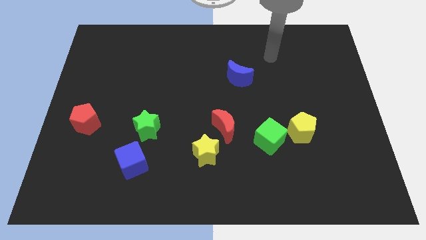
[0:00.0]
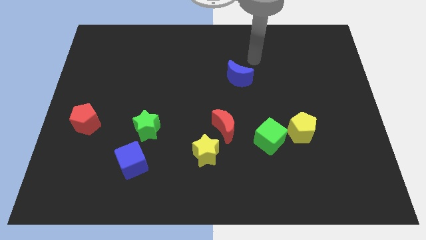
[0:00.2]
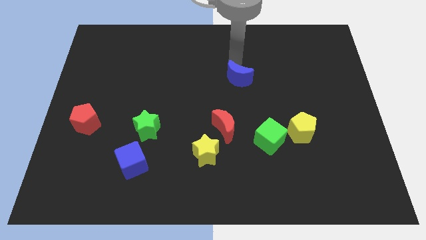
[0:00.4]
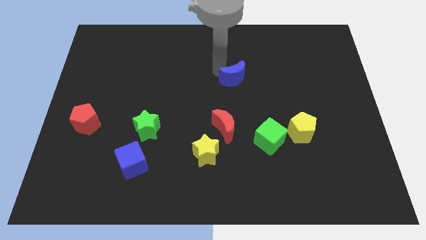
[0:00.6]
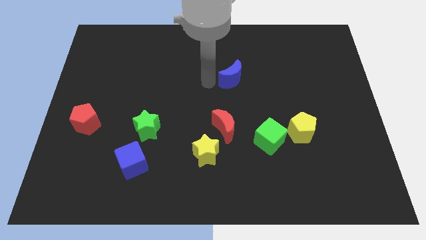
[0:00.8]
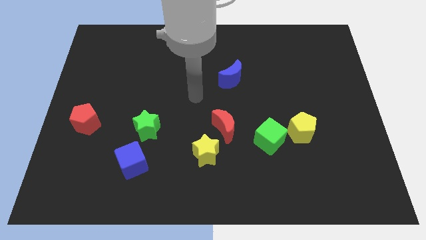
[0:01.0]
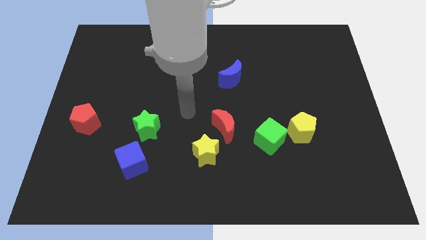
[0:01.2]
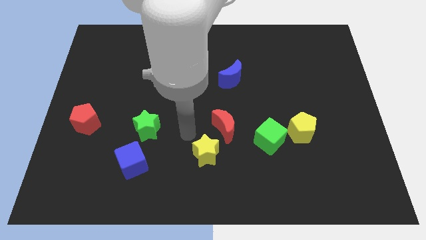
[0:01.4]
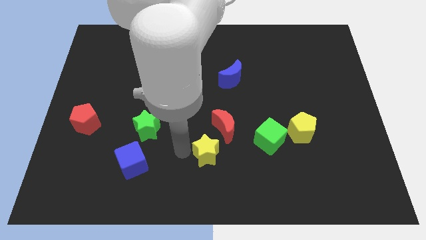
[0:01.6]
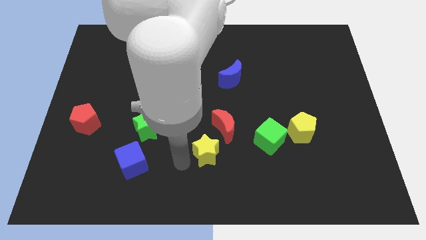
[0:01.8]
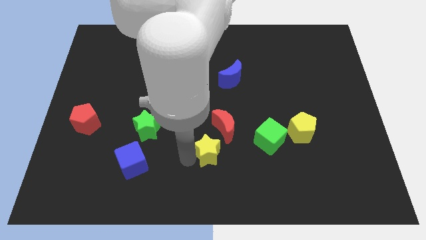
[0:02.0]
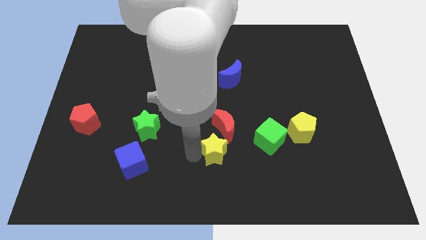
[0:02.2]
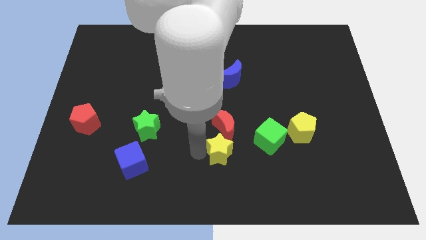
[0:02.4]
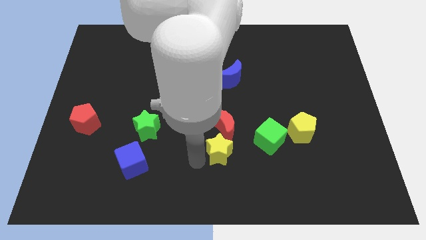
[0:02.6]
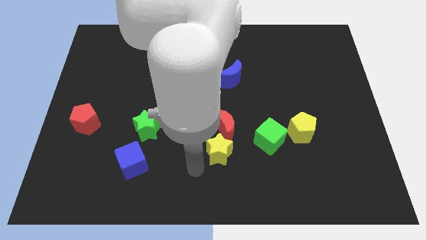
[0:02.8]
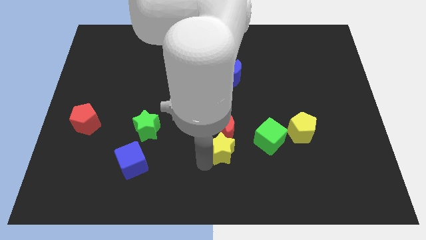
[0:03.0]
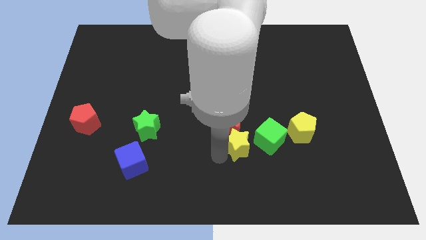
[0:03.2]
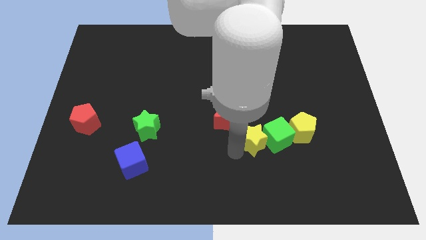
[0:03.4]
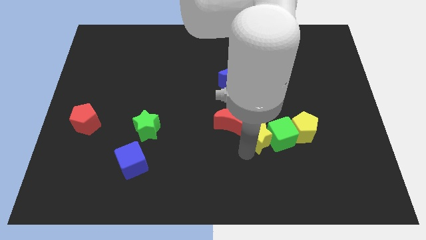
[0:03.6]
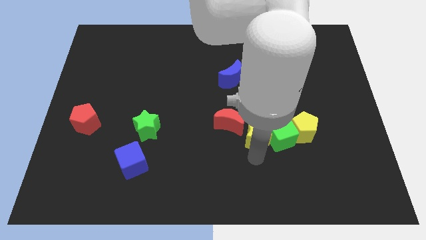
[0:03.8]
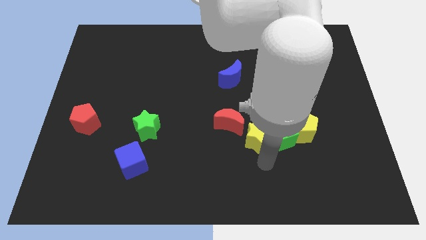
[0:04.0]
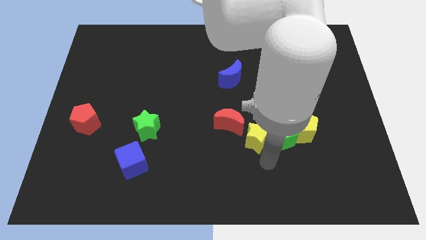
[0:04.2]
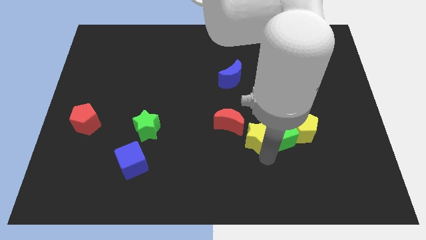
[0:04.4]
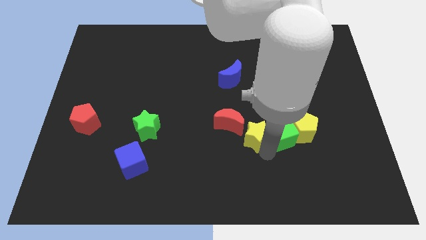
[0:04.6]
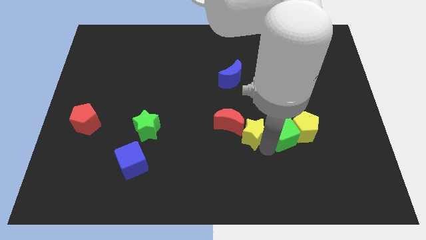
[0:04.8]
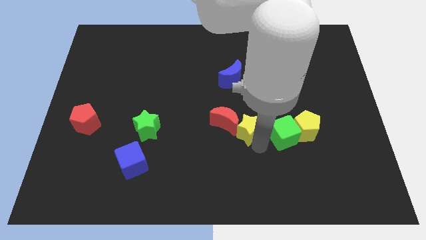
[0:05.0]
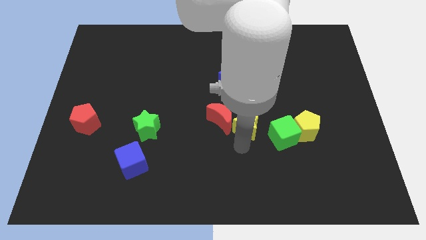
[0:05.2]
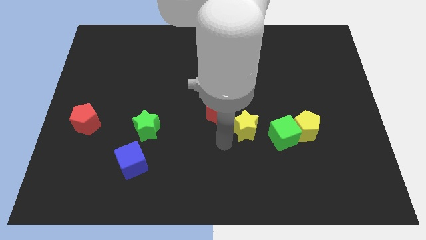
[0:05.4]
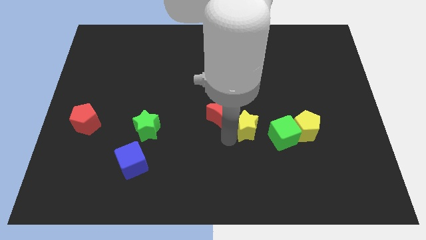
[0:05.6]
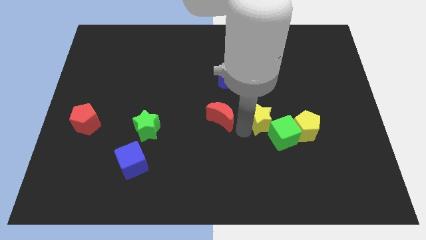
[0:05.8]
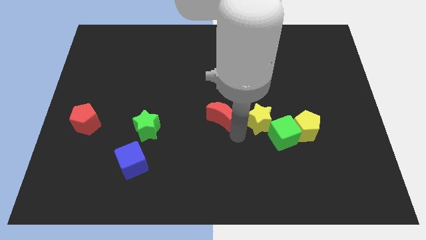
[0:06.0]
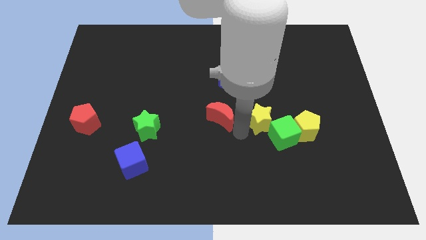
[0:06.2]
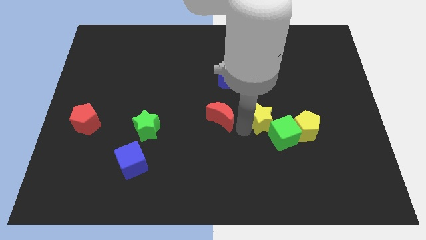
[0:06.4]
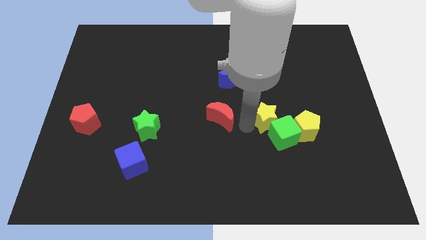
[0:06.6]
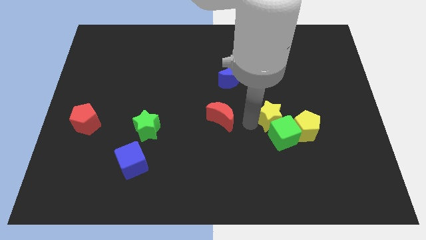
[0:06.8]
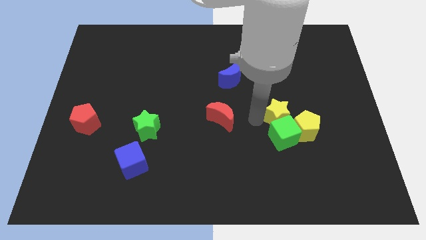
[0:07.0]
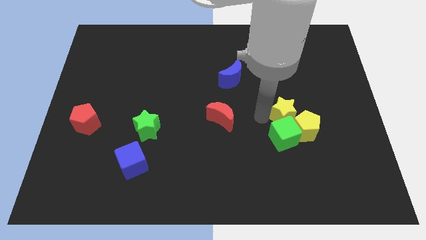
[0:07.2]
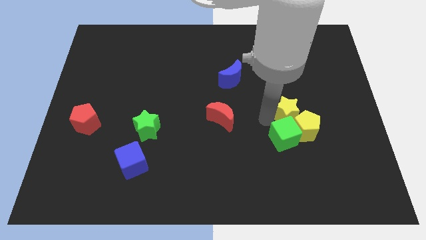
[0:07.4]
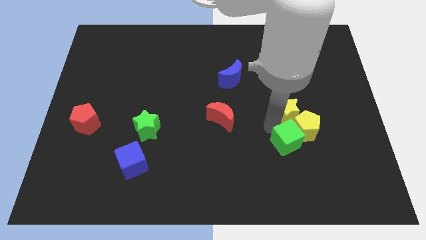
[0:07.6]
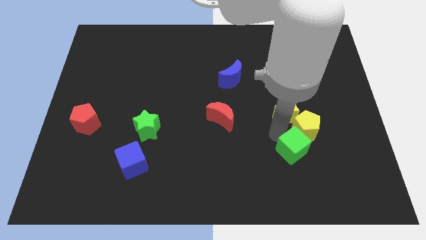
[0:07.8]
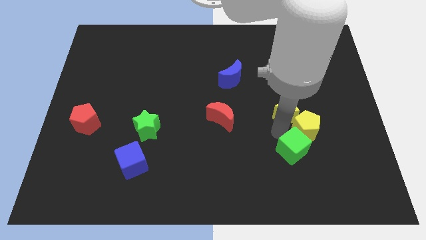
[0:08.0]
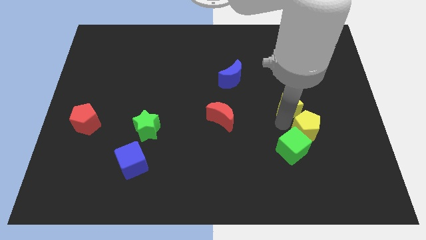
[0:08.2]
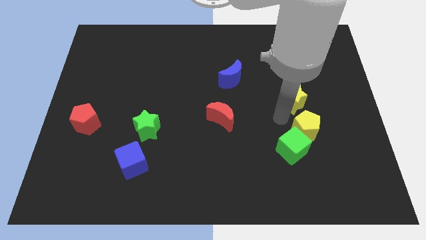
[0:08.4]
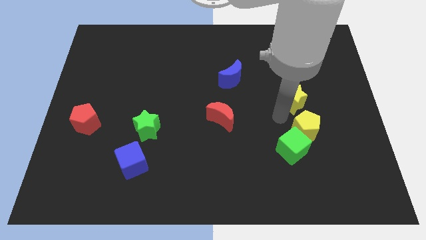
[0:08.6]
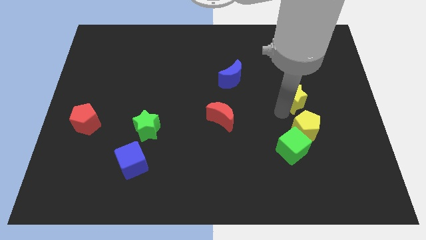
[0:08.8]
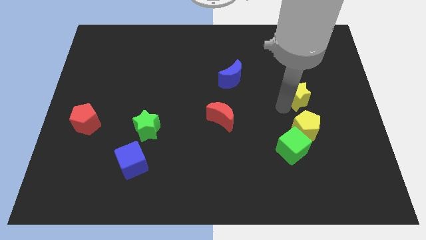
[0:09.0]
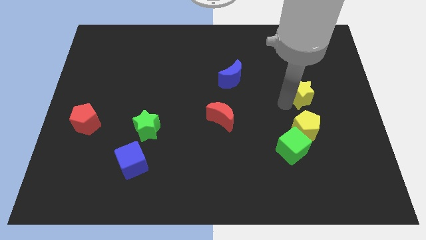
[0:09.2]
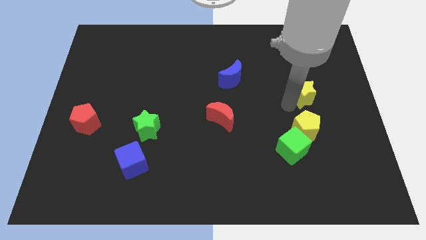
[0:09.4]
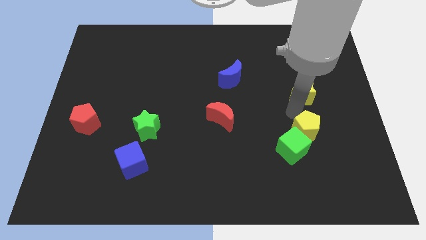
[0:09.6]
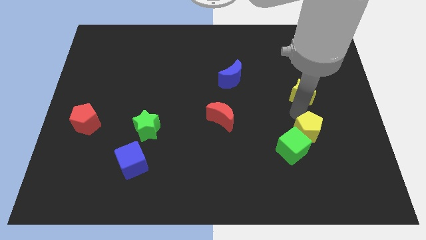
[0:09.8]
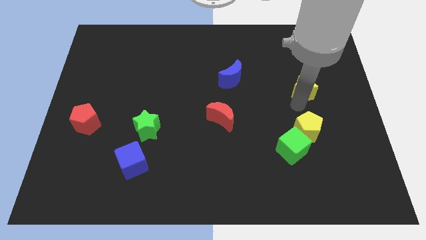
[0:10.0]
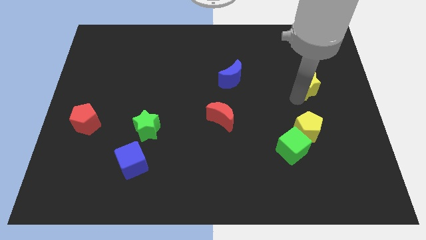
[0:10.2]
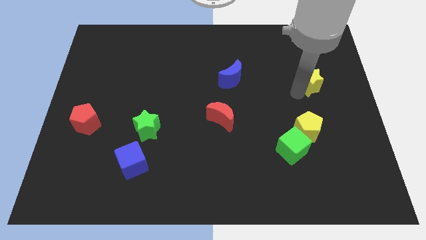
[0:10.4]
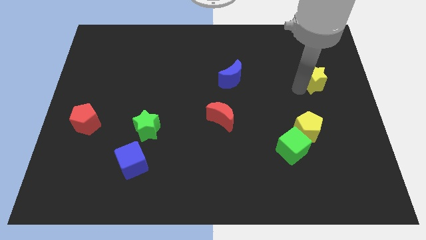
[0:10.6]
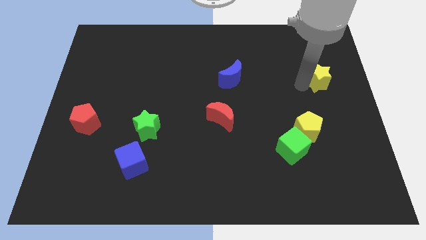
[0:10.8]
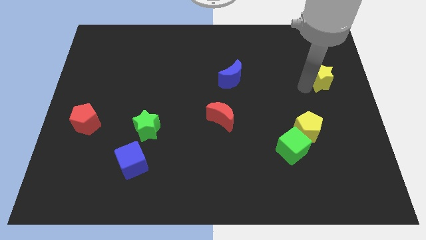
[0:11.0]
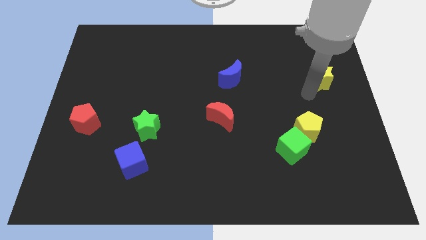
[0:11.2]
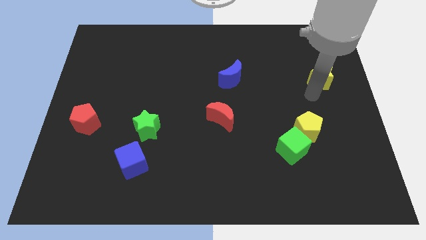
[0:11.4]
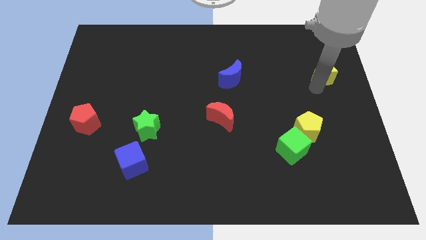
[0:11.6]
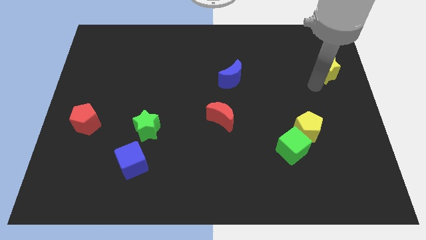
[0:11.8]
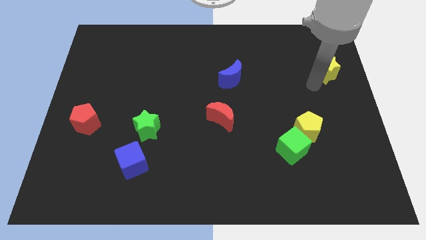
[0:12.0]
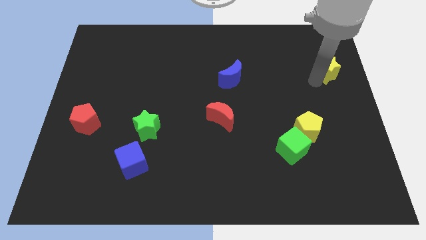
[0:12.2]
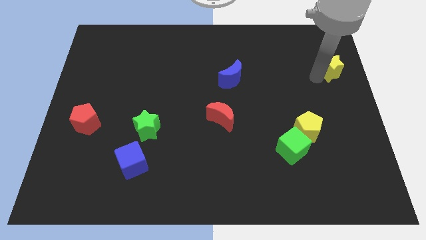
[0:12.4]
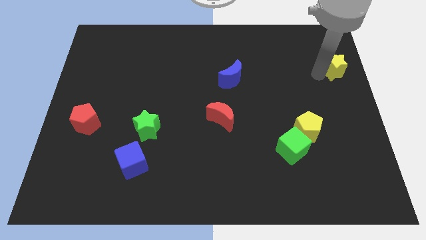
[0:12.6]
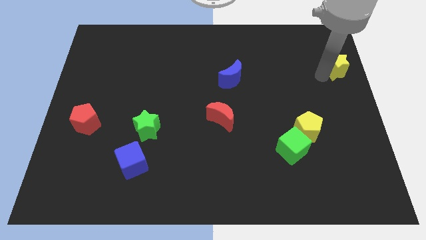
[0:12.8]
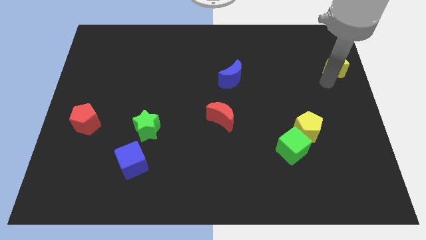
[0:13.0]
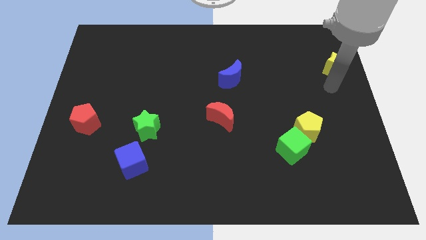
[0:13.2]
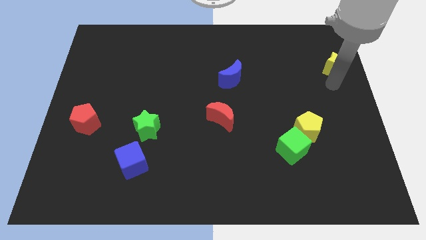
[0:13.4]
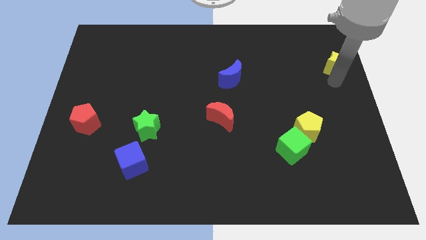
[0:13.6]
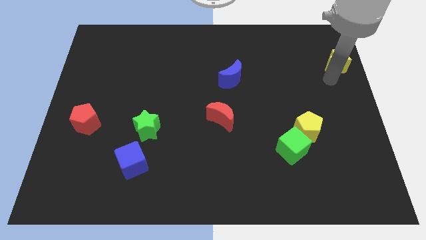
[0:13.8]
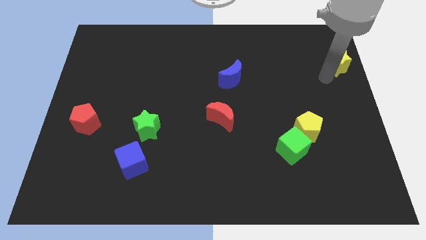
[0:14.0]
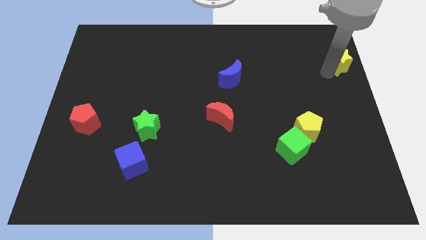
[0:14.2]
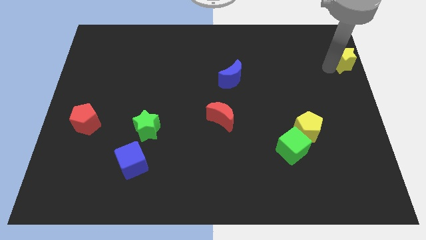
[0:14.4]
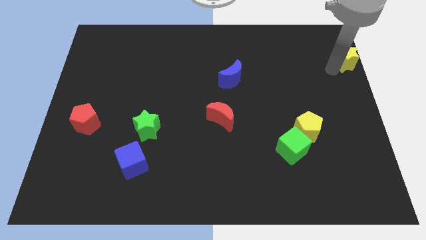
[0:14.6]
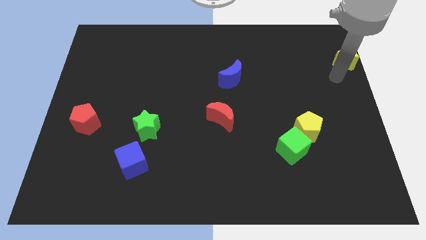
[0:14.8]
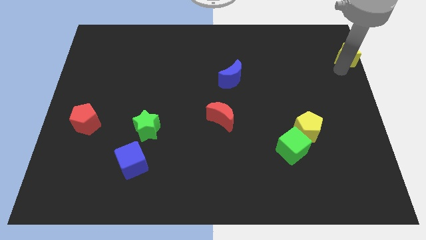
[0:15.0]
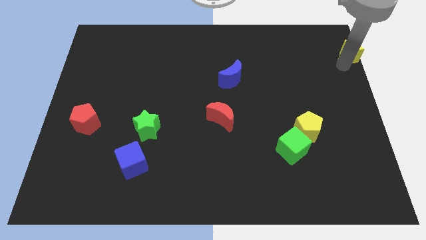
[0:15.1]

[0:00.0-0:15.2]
move the yellow star to the top right corner
